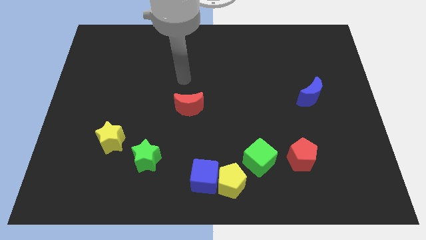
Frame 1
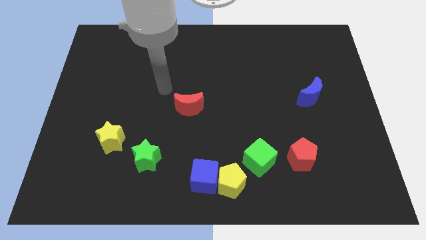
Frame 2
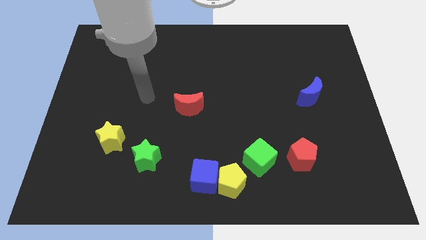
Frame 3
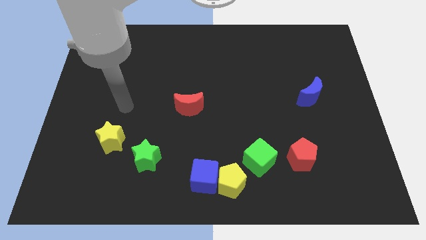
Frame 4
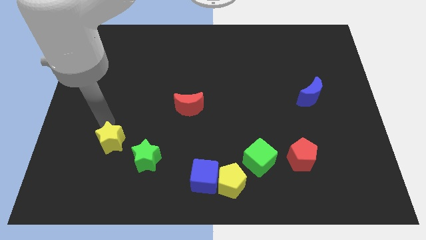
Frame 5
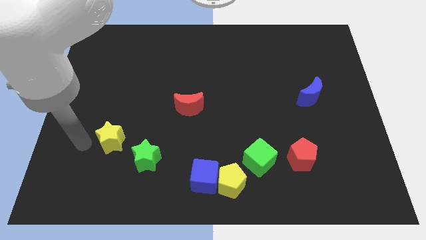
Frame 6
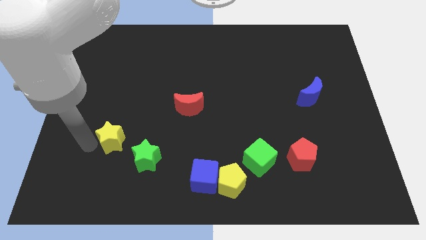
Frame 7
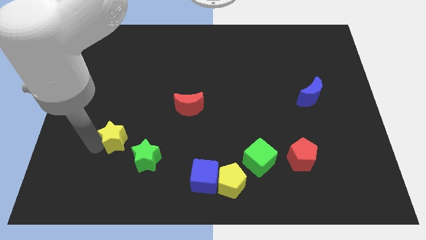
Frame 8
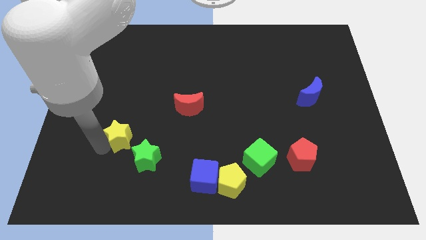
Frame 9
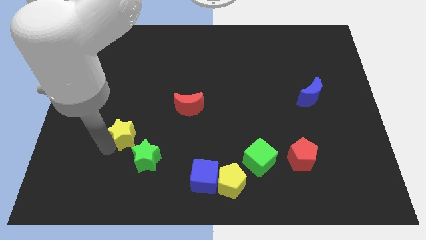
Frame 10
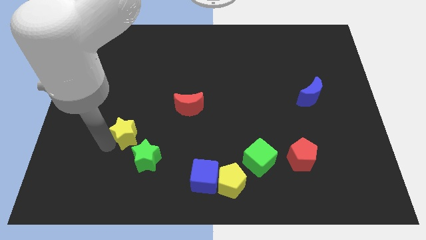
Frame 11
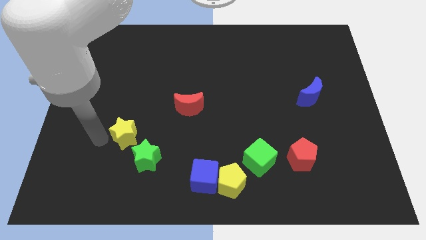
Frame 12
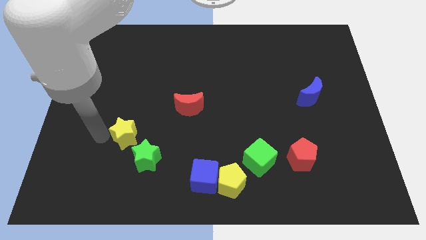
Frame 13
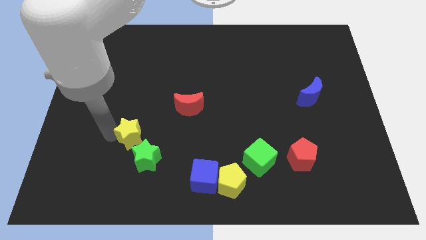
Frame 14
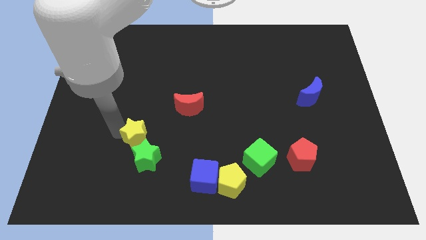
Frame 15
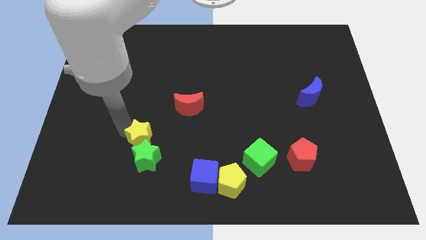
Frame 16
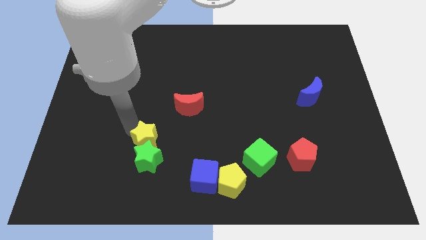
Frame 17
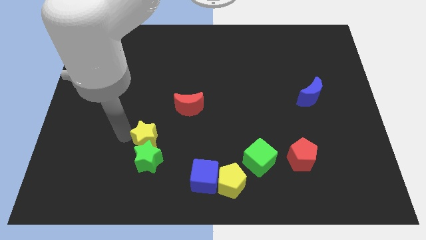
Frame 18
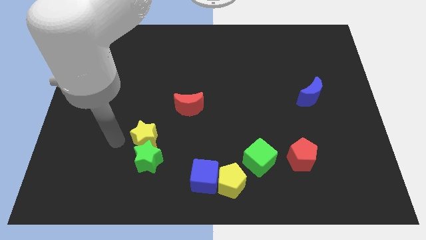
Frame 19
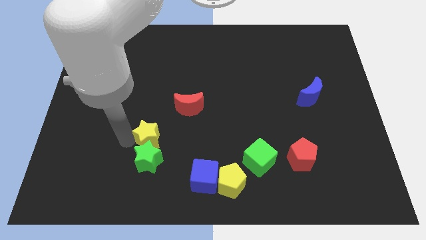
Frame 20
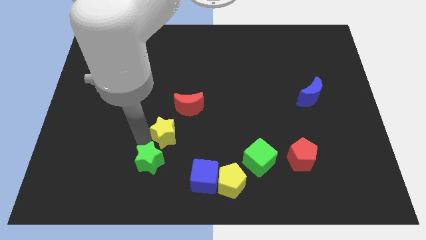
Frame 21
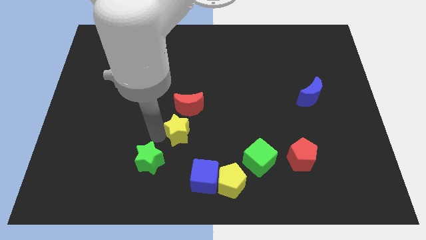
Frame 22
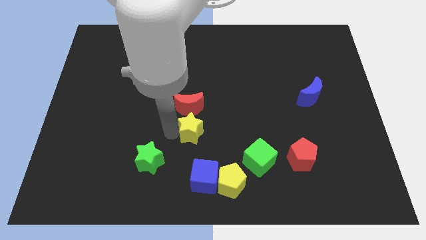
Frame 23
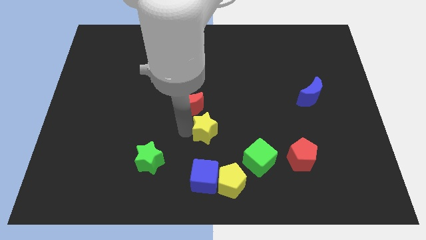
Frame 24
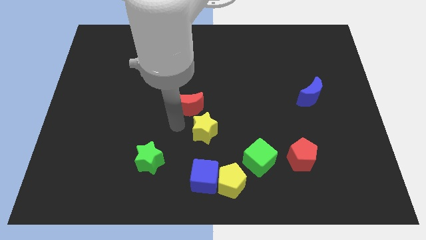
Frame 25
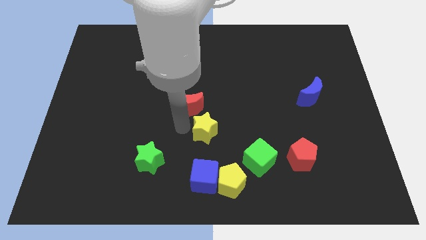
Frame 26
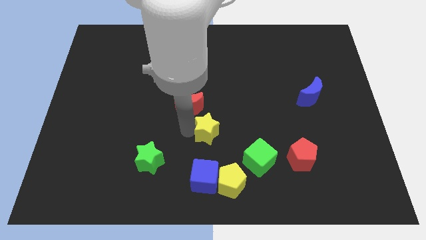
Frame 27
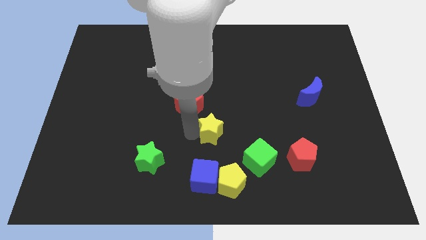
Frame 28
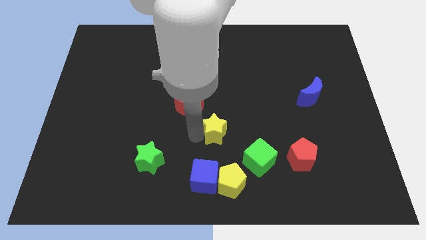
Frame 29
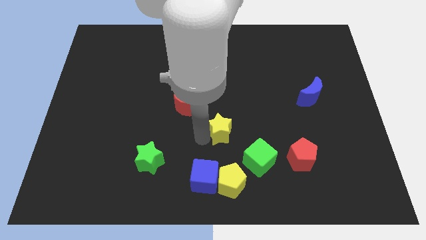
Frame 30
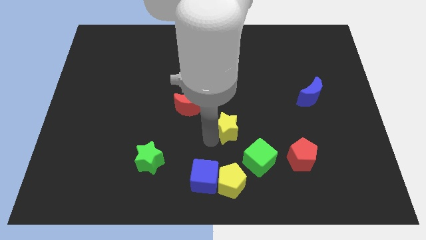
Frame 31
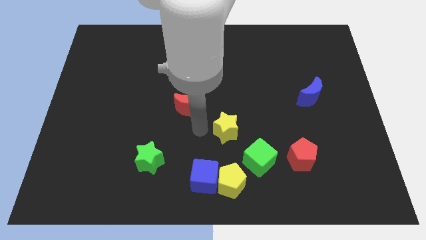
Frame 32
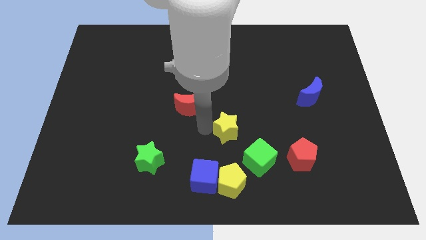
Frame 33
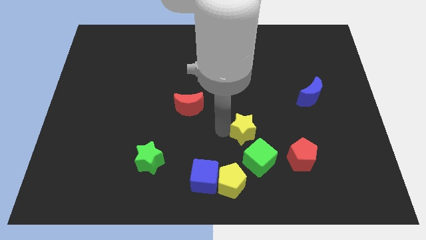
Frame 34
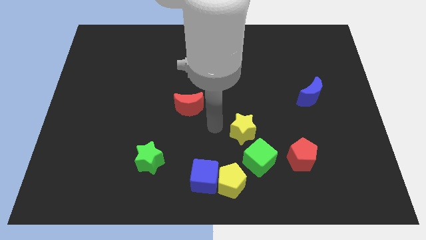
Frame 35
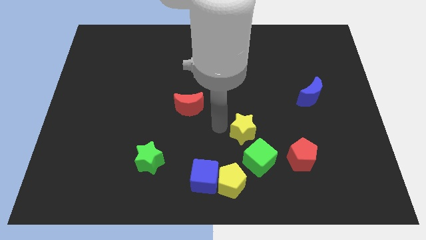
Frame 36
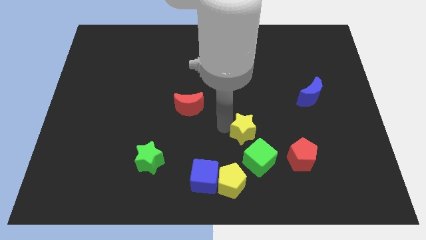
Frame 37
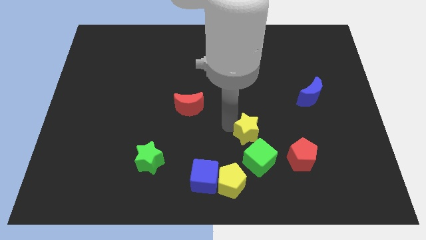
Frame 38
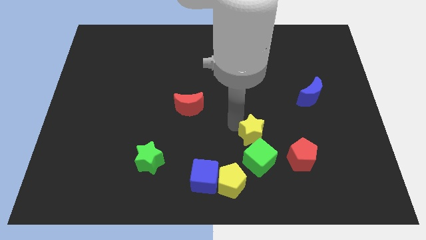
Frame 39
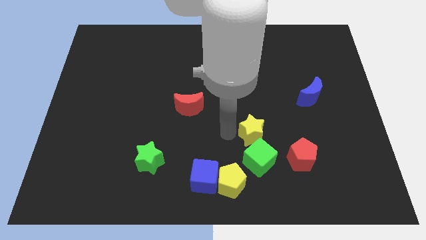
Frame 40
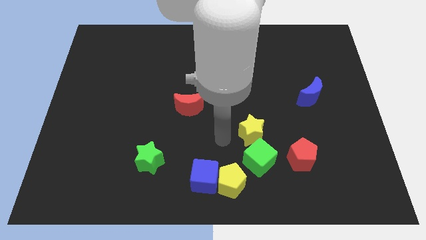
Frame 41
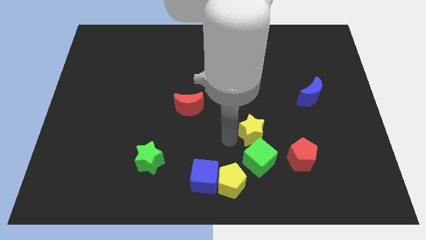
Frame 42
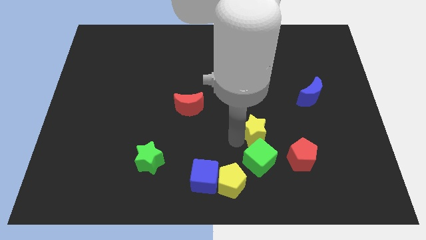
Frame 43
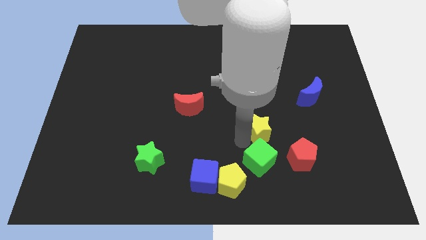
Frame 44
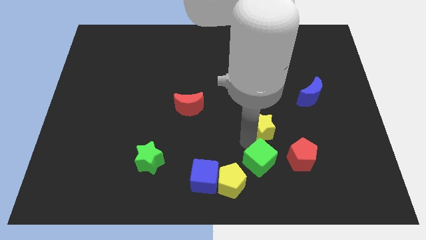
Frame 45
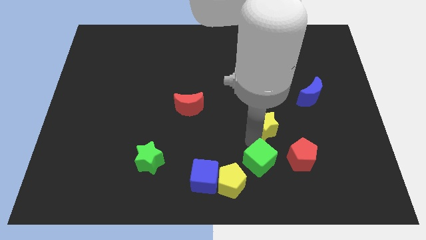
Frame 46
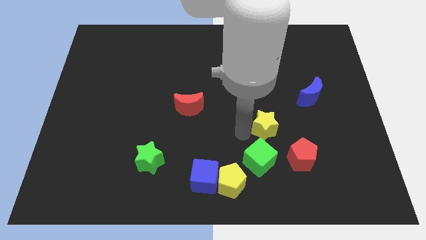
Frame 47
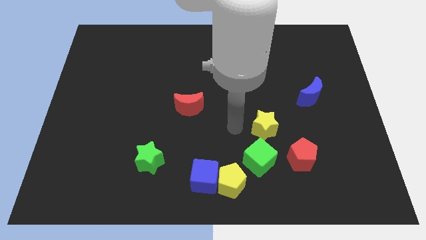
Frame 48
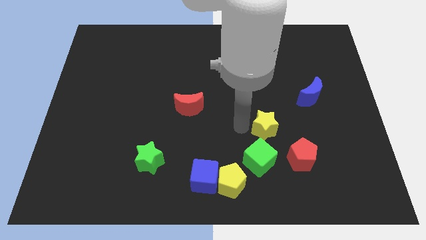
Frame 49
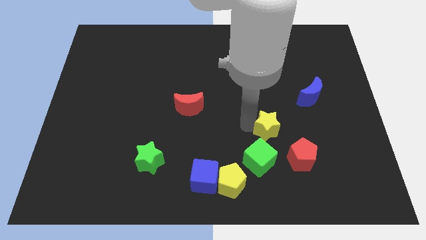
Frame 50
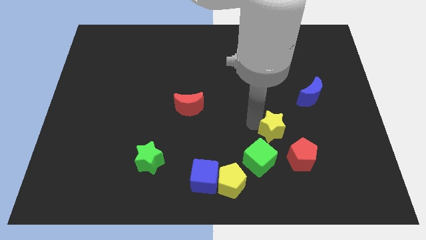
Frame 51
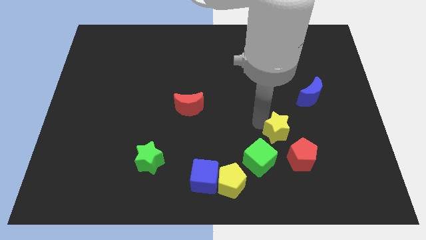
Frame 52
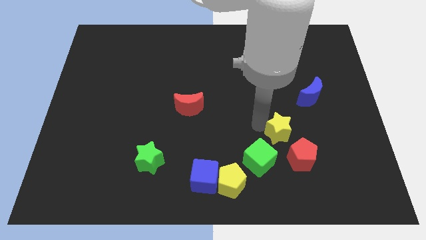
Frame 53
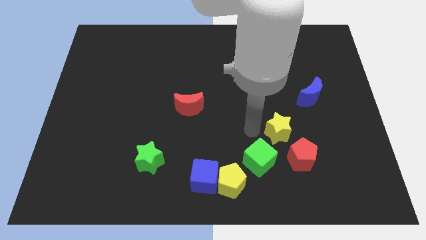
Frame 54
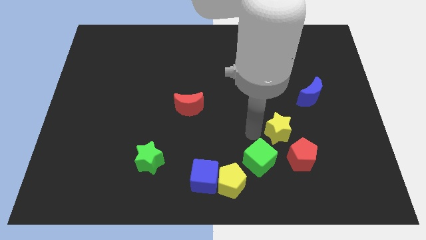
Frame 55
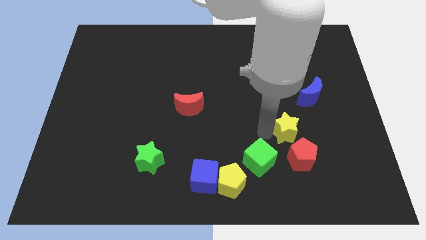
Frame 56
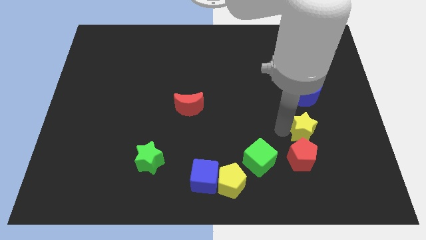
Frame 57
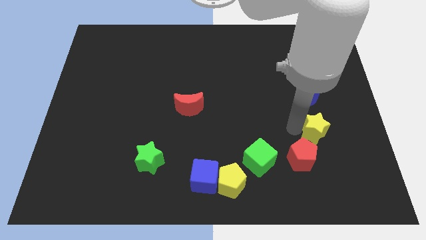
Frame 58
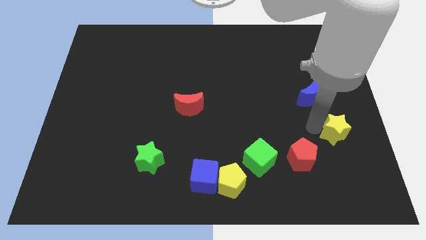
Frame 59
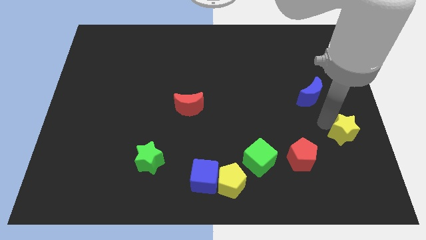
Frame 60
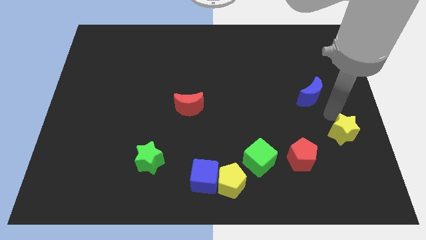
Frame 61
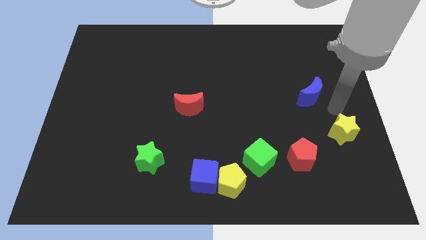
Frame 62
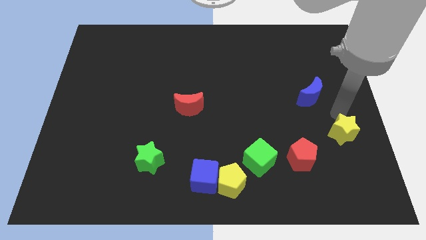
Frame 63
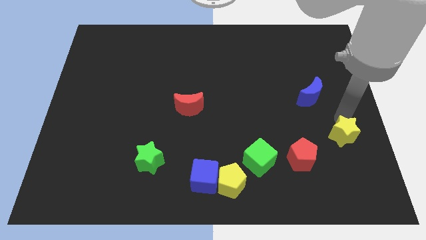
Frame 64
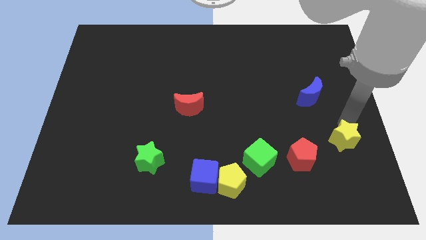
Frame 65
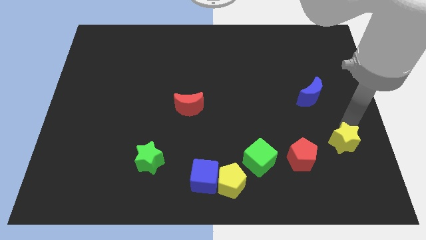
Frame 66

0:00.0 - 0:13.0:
slide the yellow star to the right side of the red pentagon

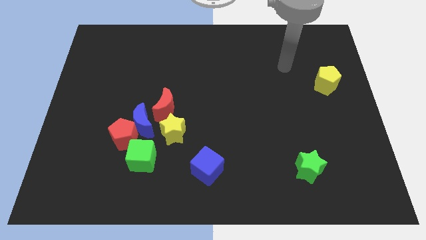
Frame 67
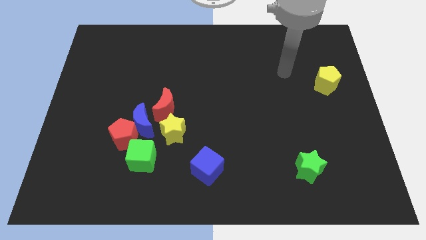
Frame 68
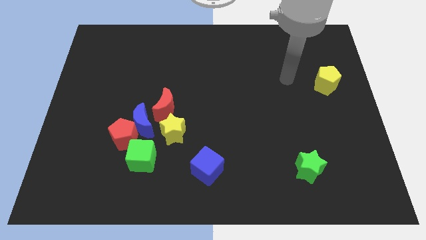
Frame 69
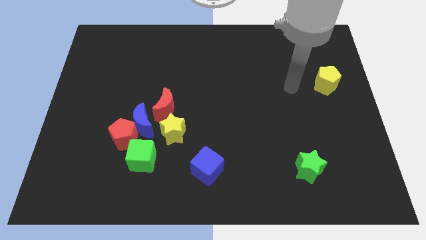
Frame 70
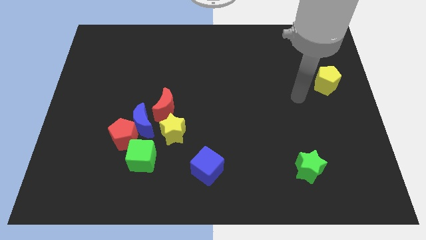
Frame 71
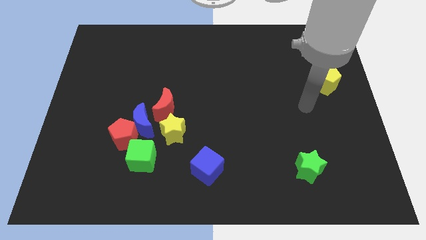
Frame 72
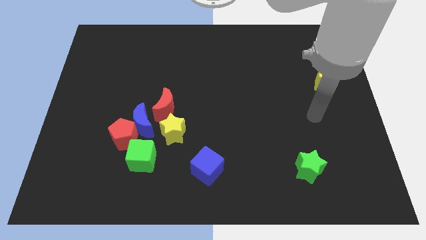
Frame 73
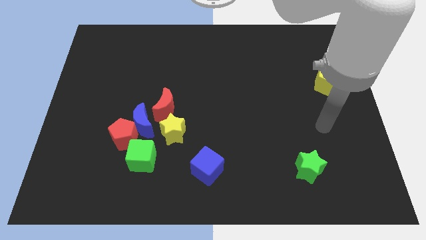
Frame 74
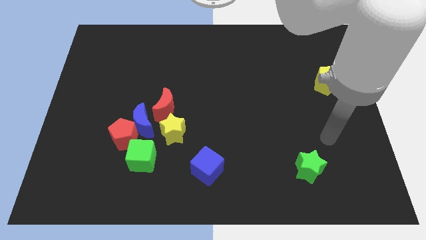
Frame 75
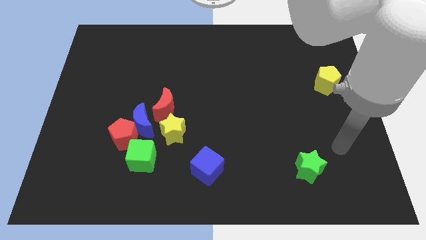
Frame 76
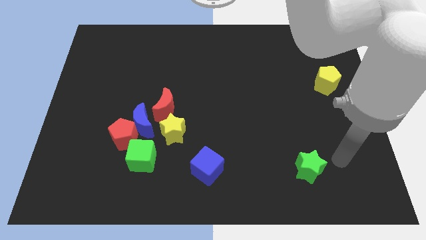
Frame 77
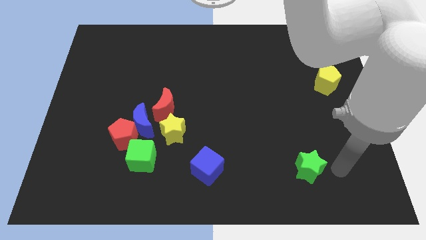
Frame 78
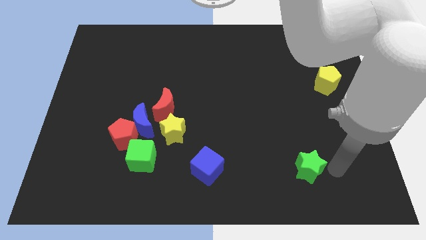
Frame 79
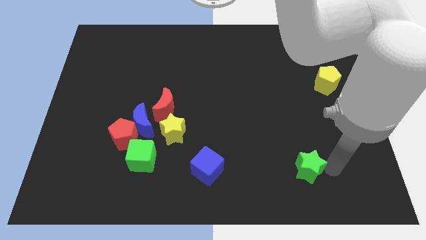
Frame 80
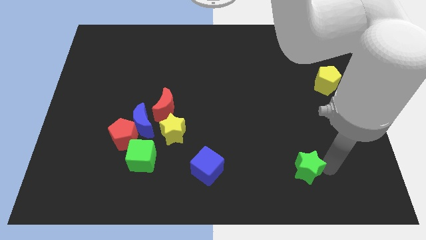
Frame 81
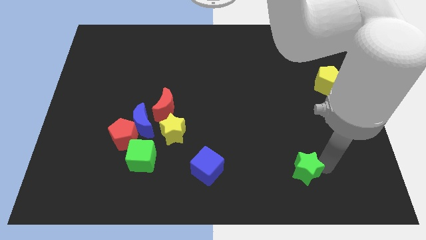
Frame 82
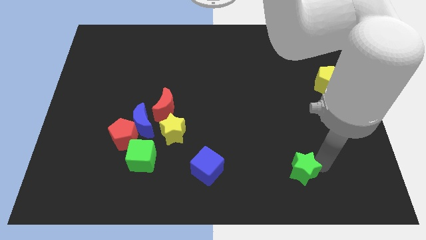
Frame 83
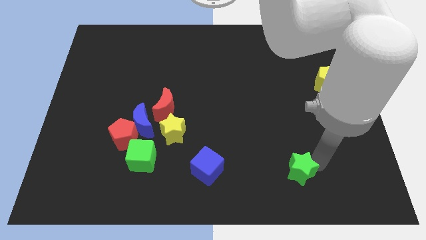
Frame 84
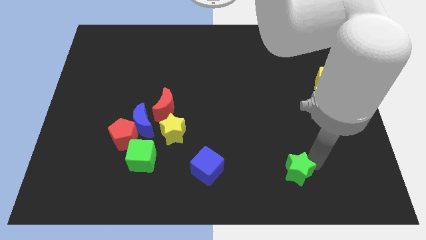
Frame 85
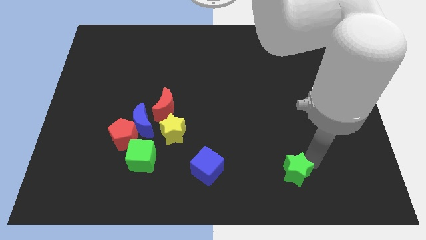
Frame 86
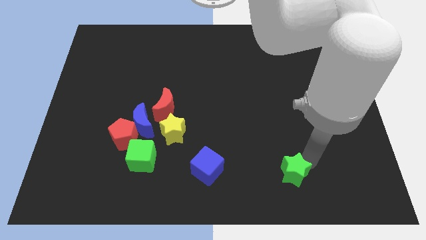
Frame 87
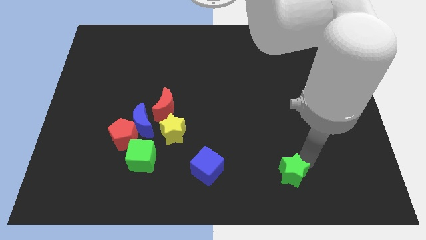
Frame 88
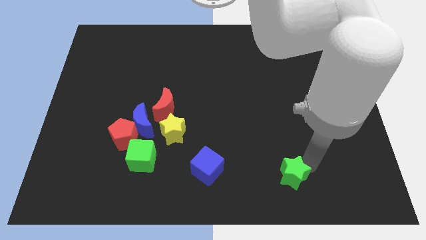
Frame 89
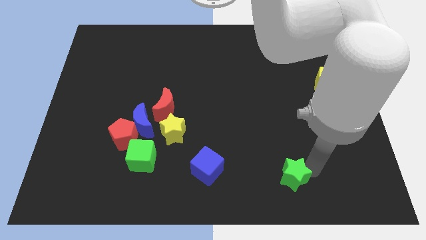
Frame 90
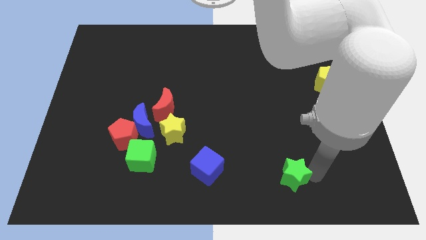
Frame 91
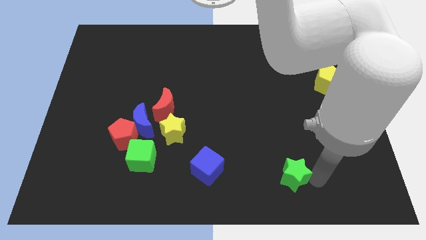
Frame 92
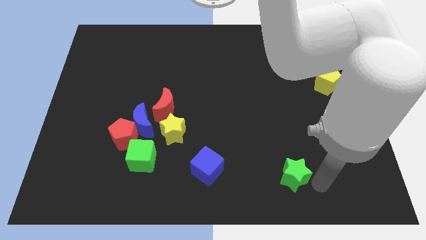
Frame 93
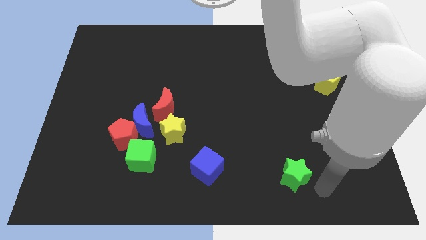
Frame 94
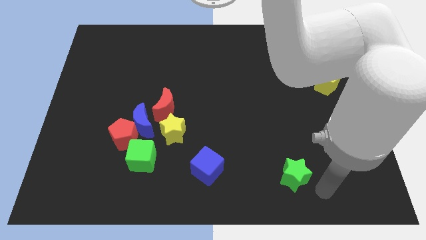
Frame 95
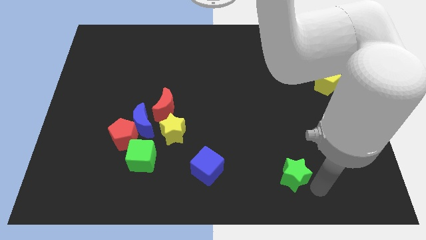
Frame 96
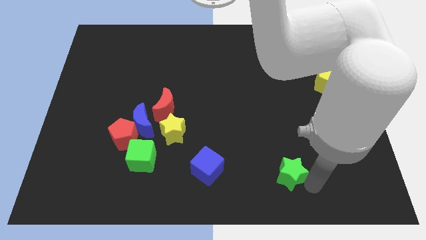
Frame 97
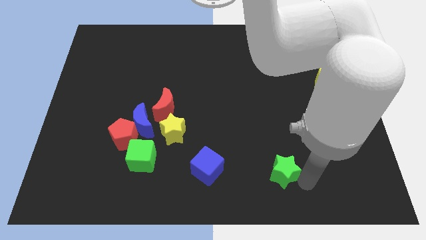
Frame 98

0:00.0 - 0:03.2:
put the green star just right of the blue cube
